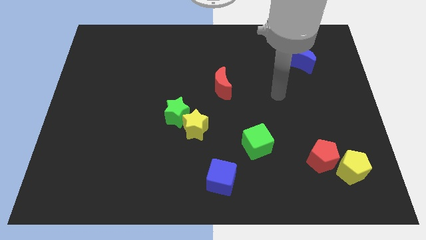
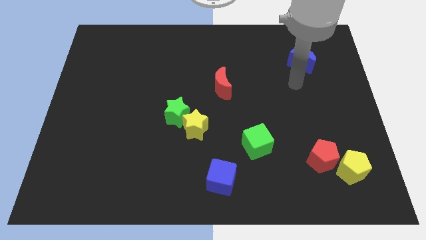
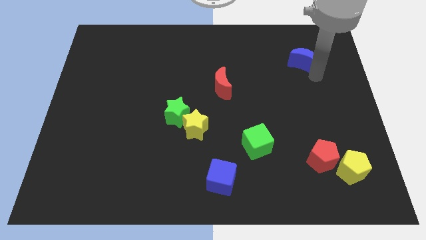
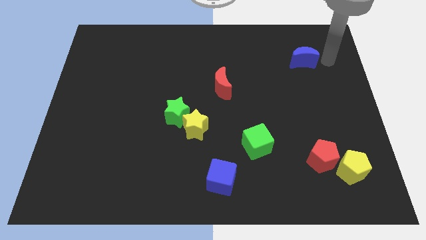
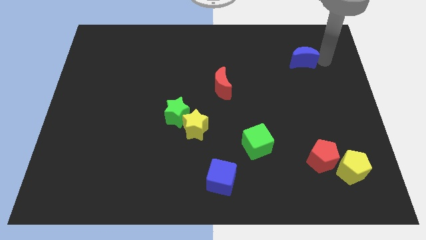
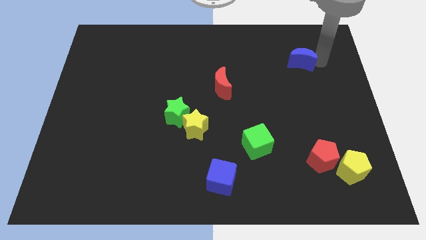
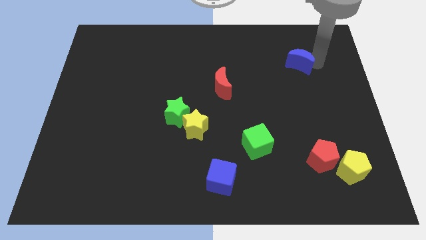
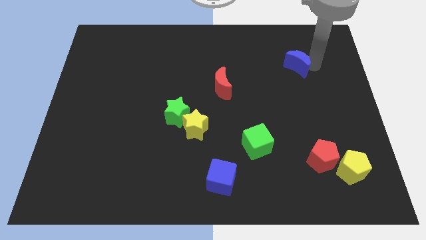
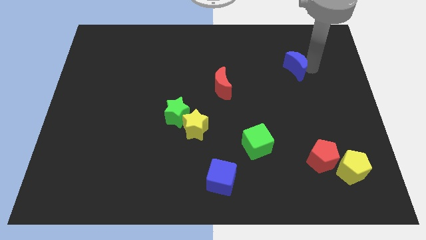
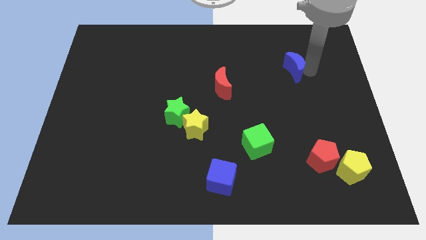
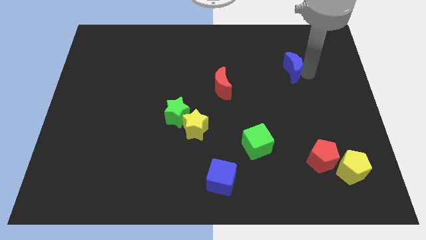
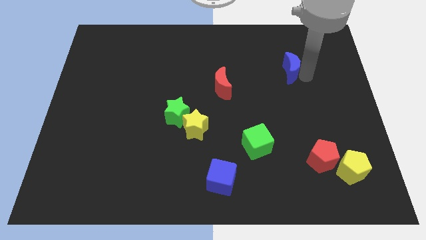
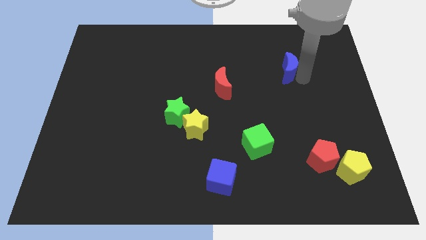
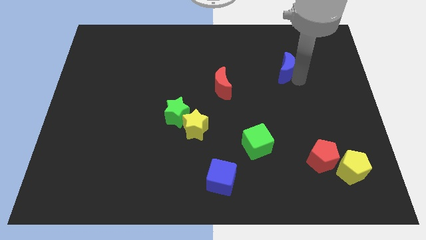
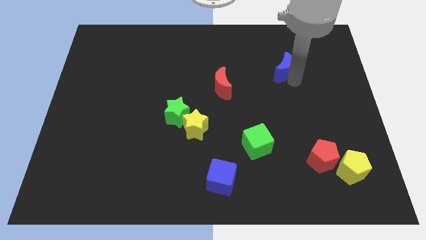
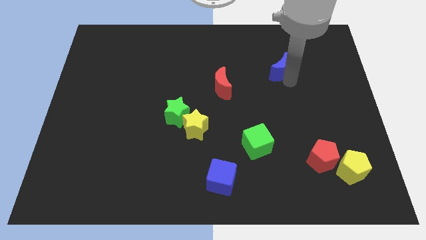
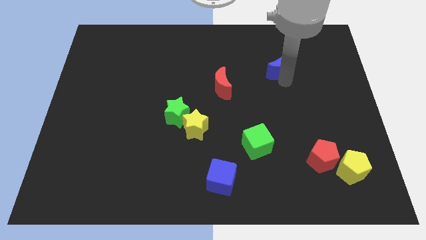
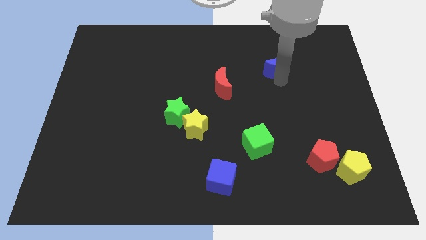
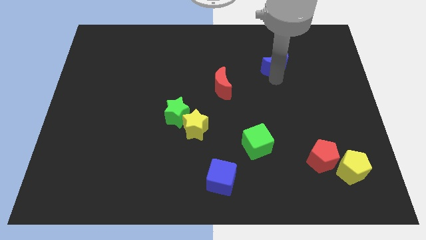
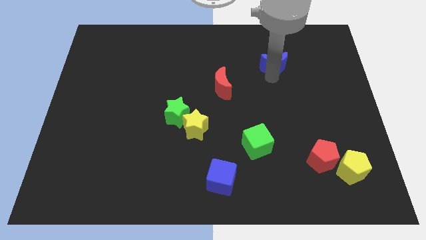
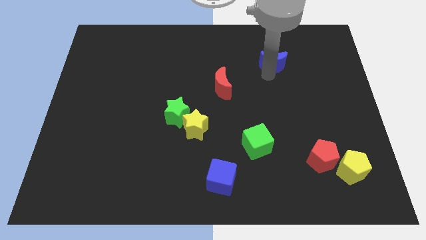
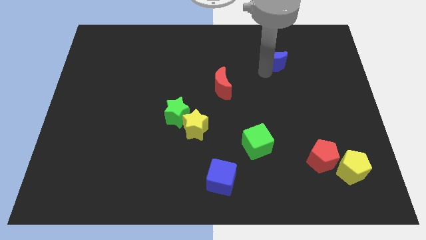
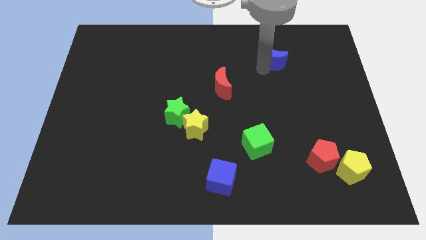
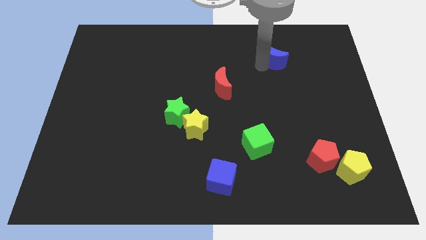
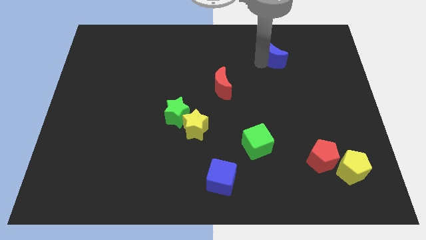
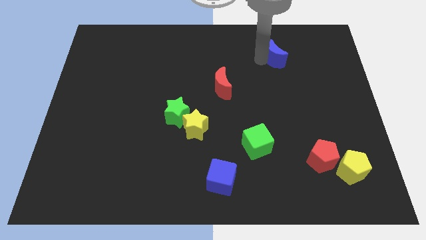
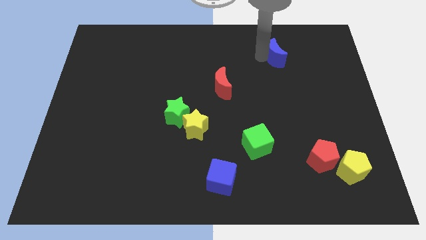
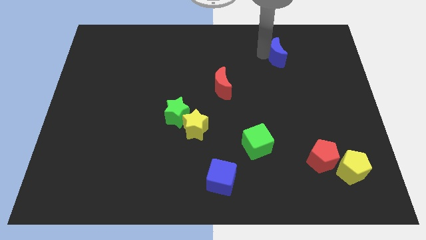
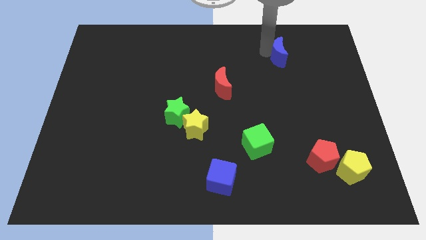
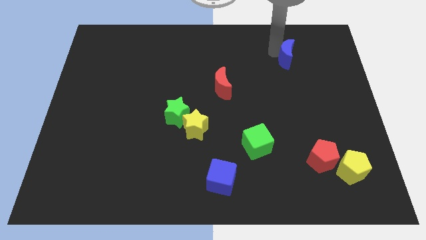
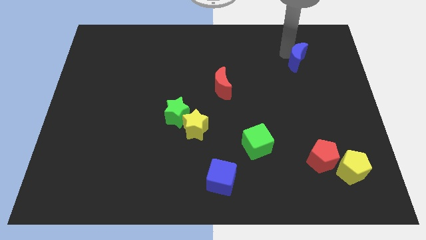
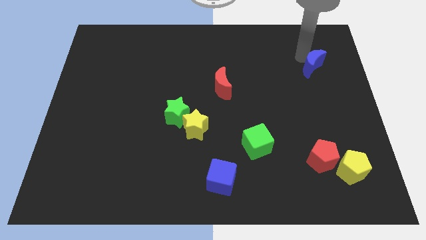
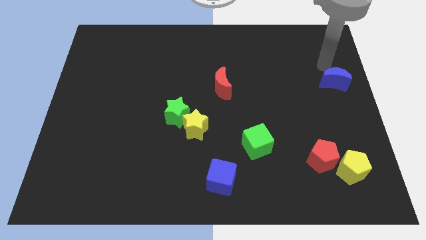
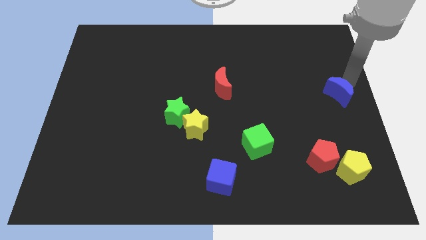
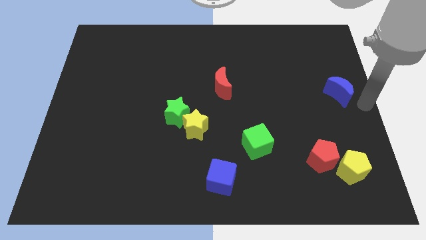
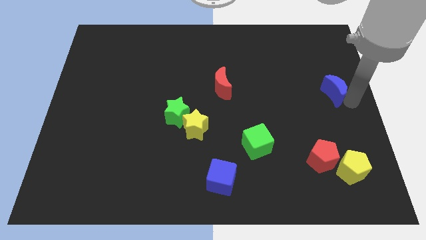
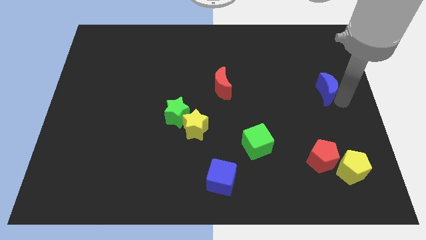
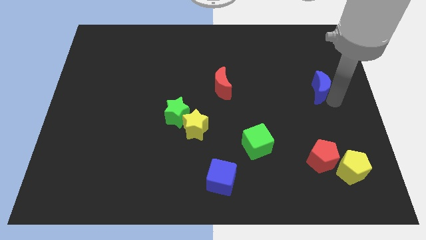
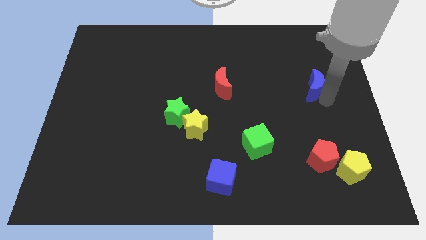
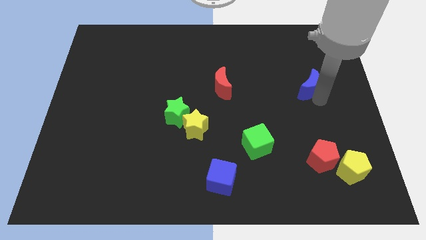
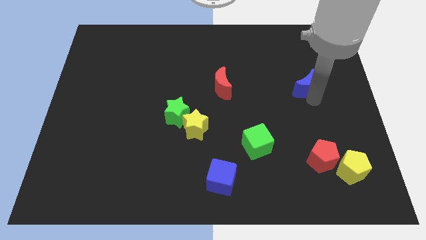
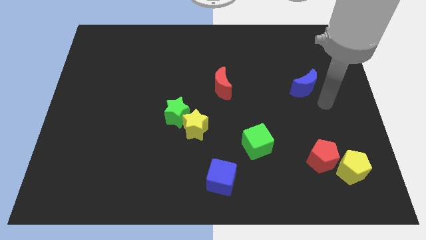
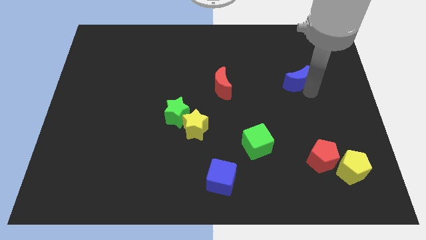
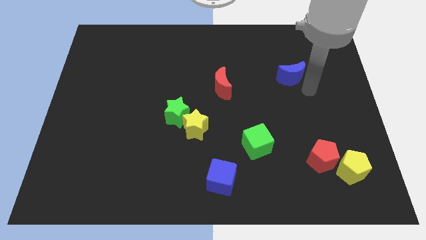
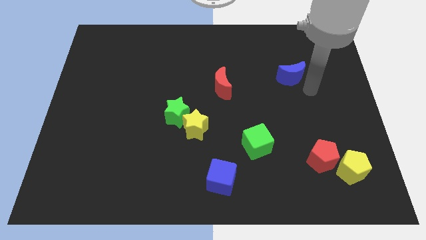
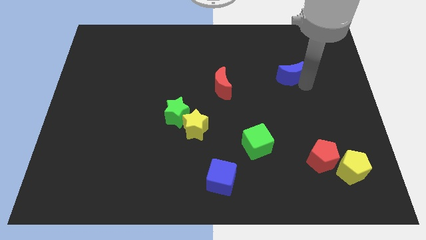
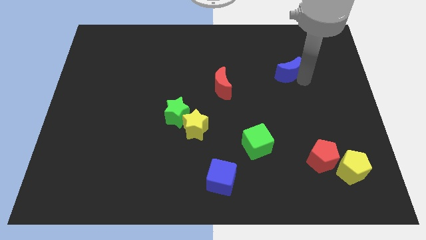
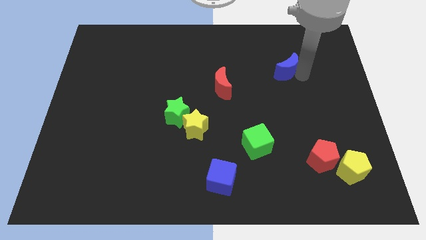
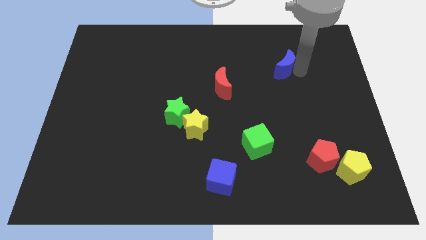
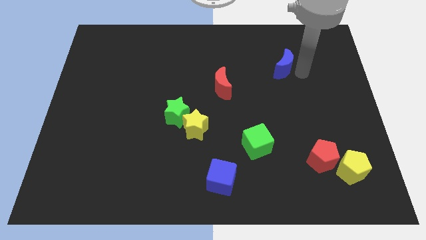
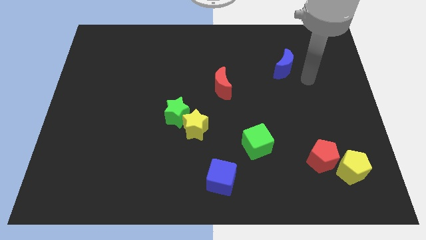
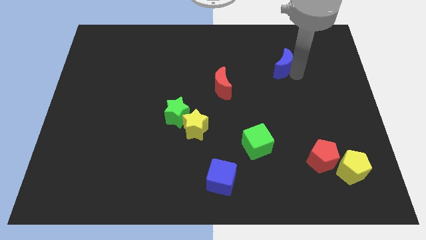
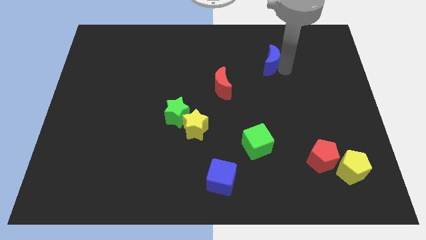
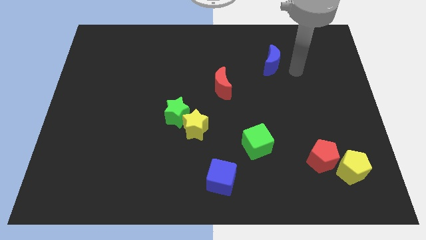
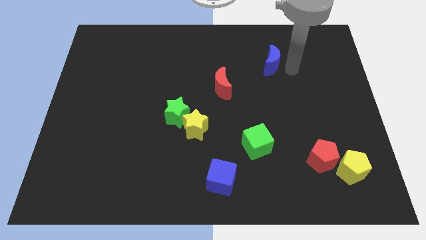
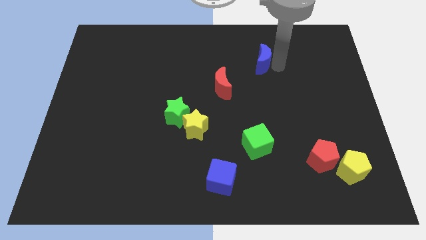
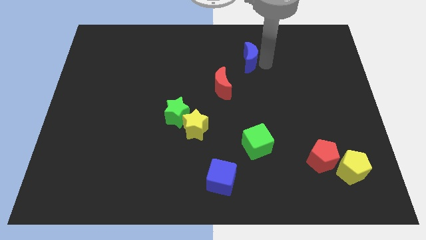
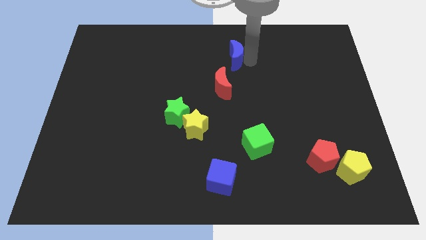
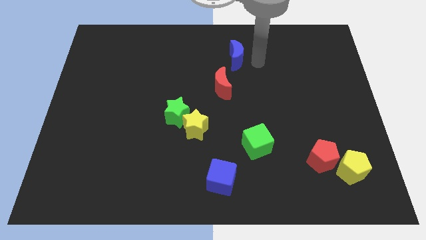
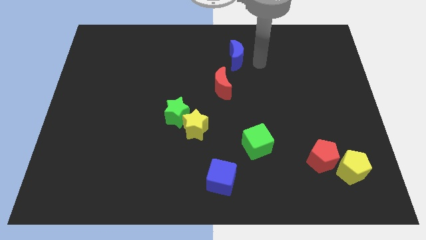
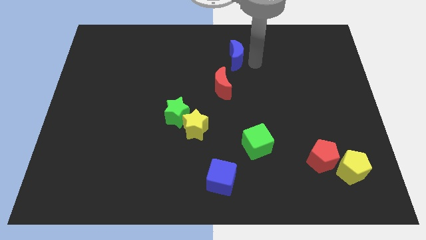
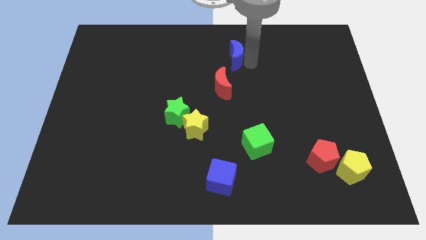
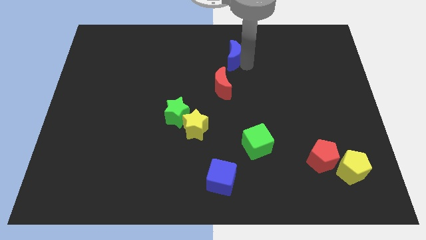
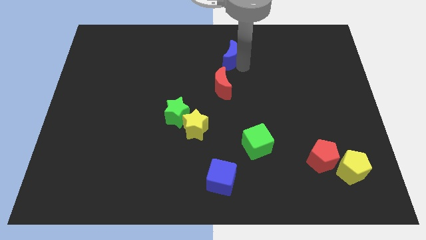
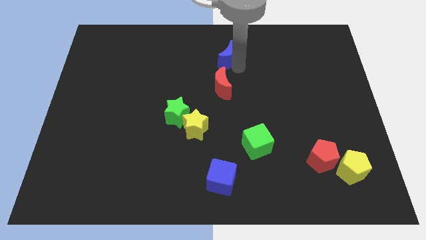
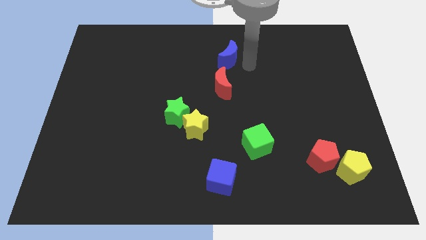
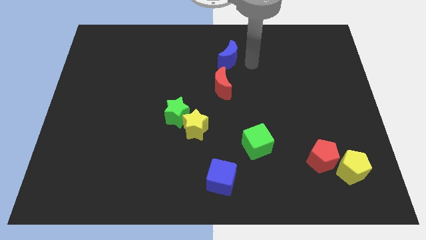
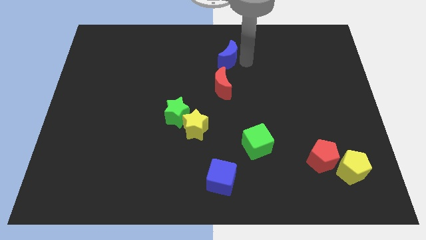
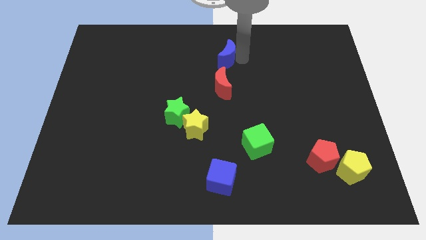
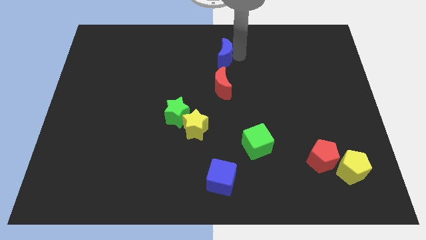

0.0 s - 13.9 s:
move the blue moon left

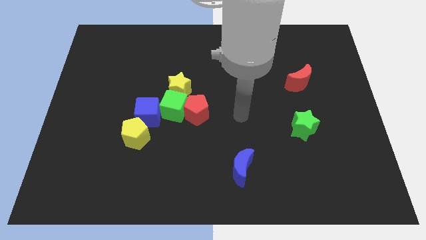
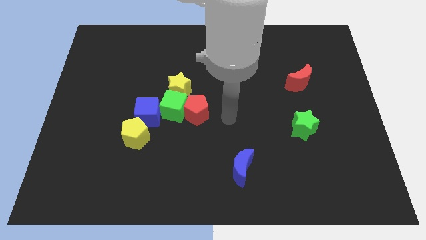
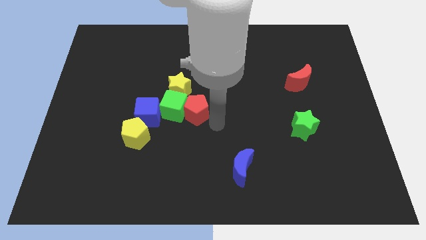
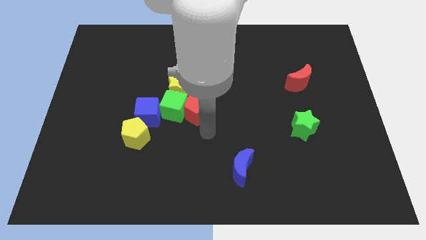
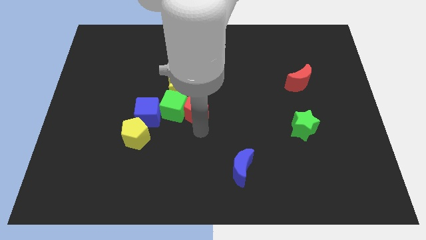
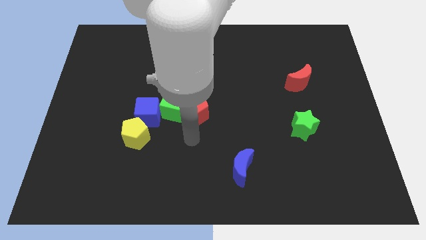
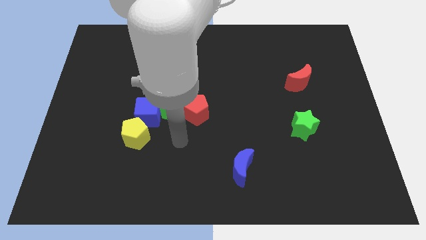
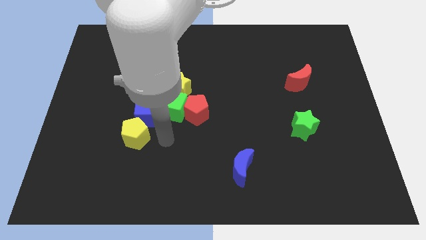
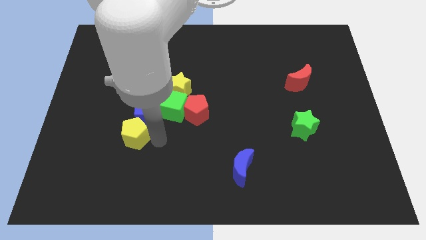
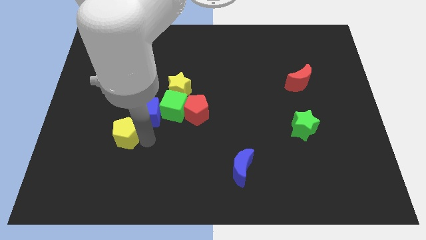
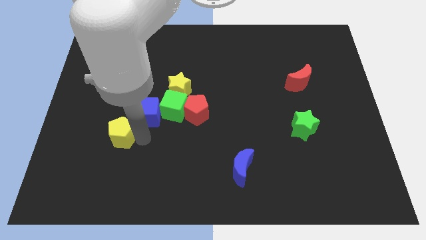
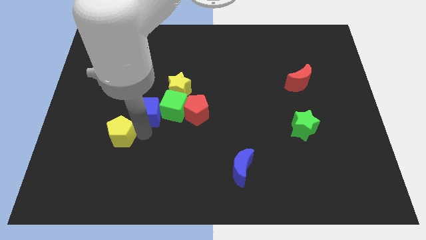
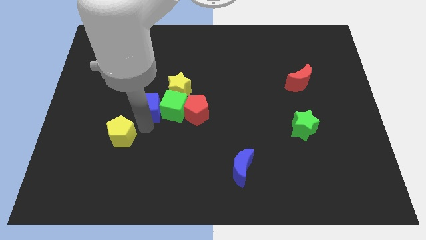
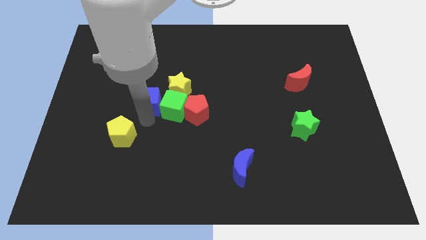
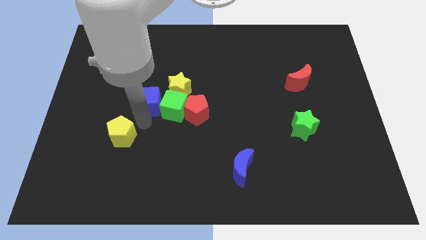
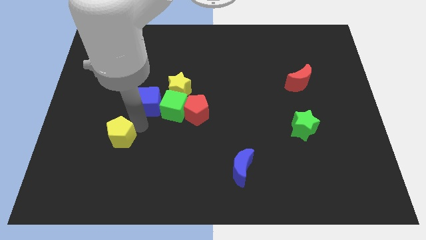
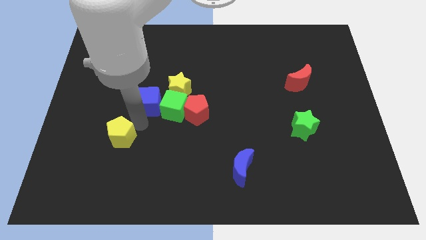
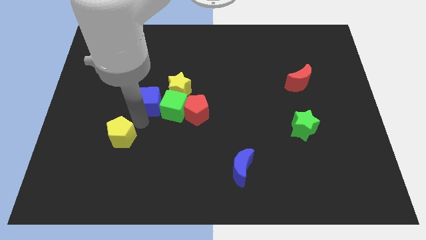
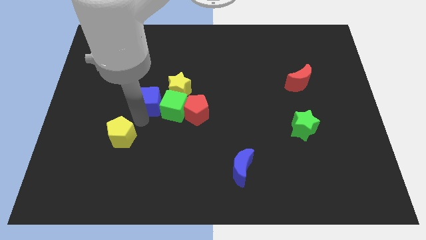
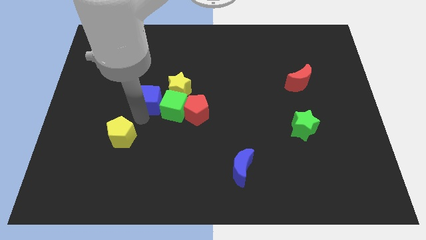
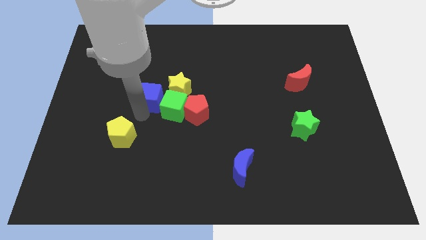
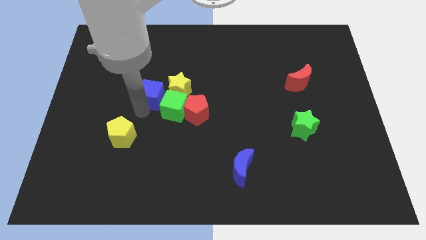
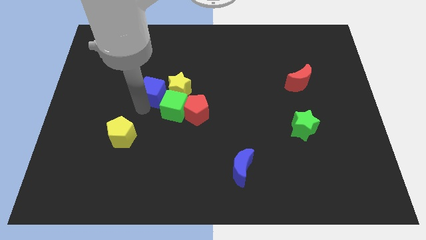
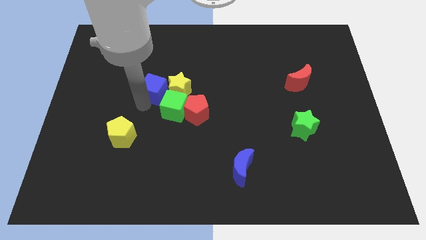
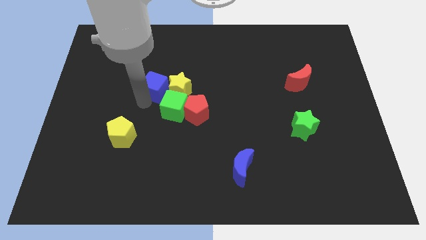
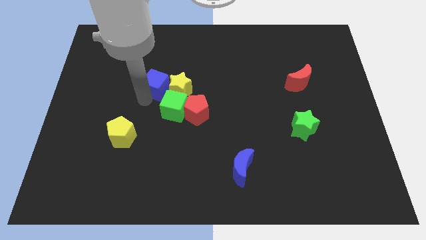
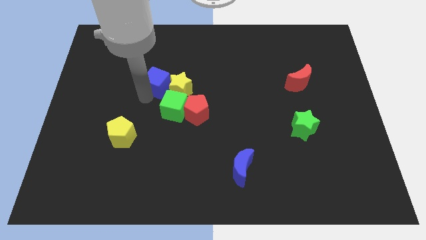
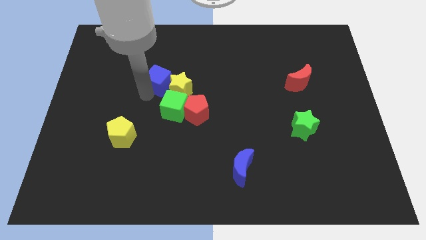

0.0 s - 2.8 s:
move the blue cube diagonally up and to the right somewhat
